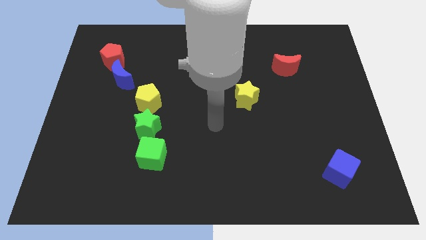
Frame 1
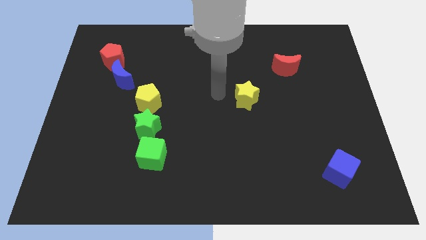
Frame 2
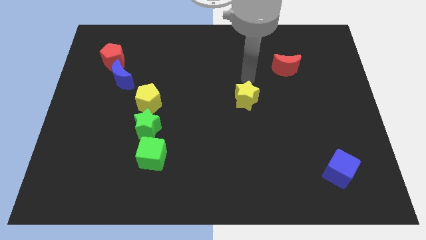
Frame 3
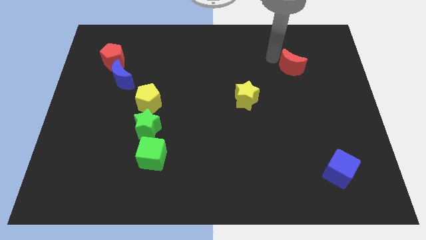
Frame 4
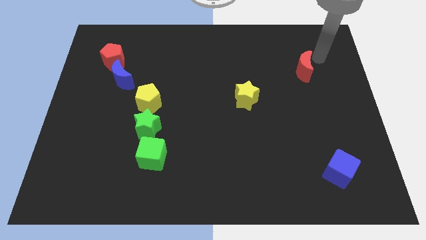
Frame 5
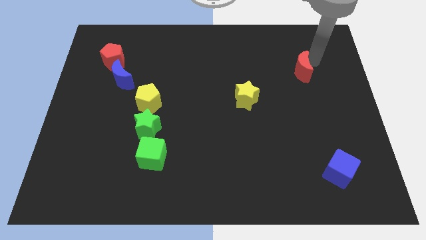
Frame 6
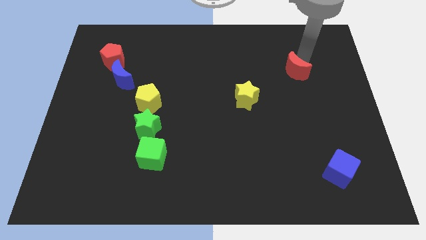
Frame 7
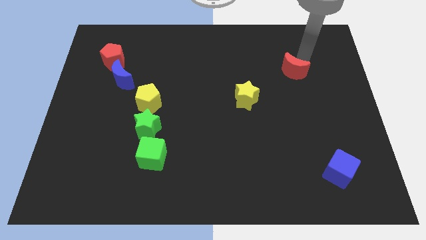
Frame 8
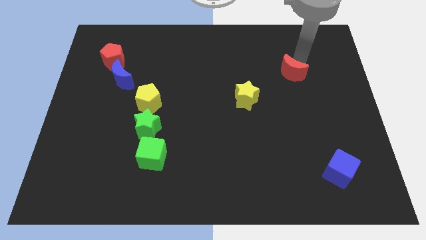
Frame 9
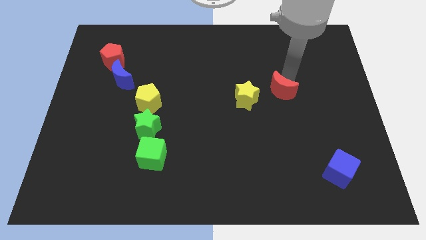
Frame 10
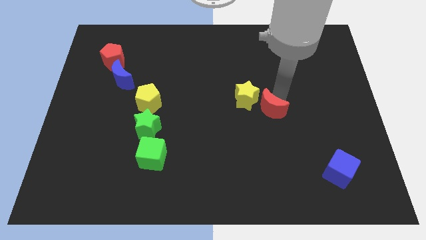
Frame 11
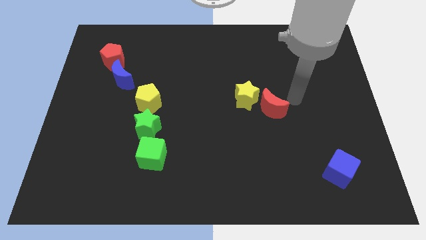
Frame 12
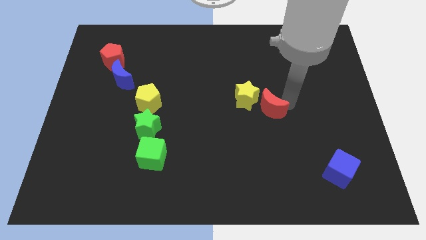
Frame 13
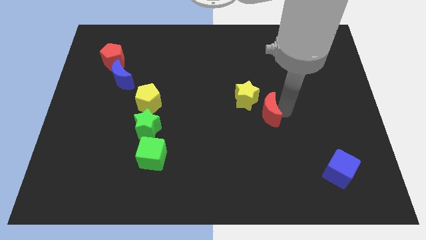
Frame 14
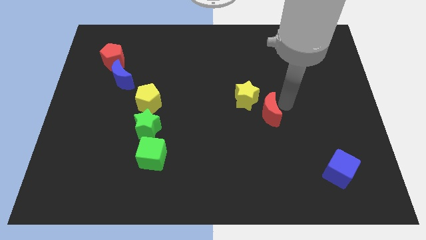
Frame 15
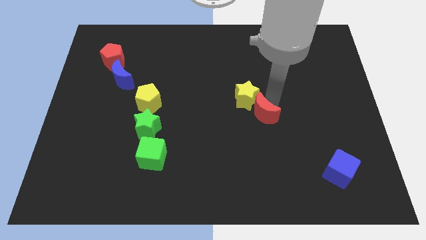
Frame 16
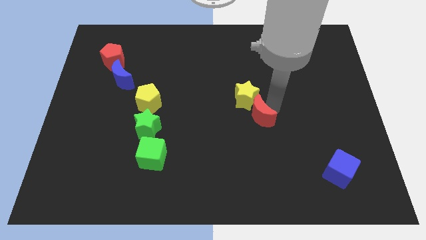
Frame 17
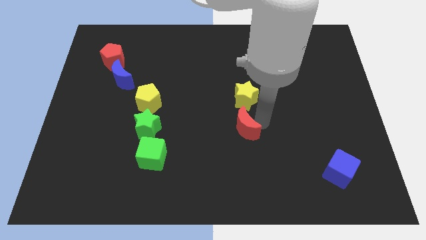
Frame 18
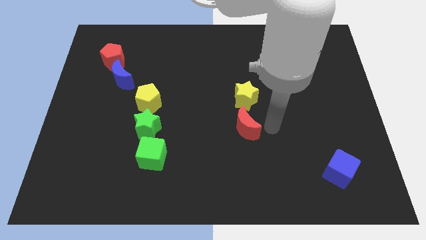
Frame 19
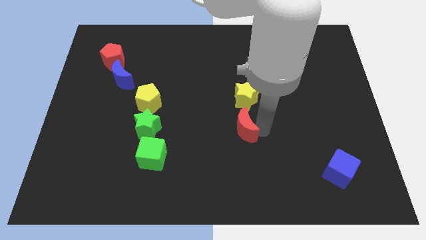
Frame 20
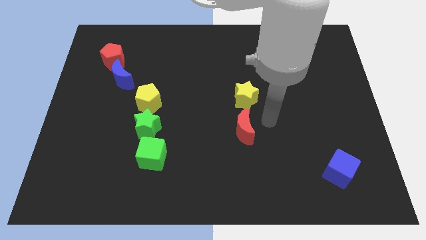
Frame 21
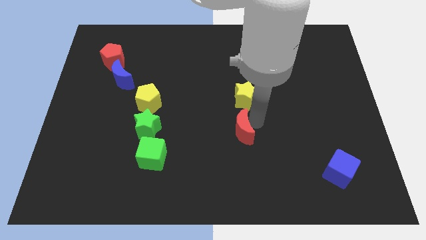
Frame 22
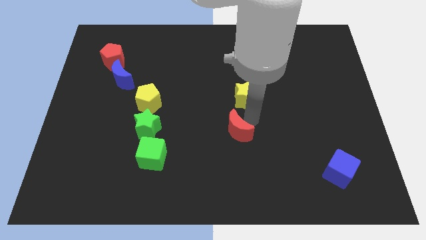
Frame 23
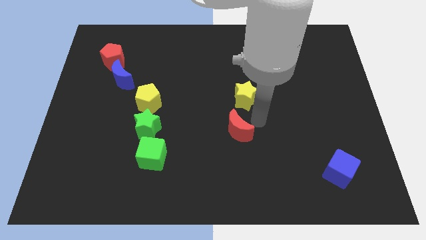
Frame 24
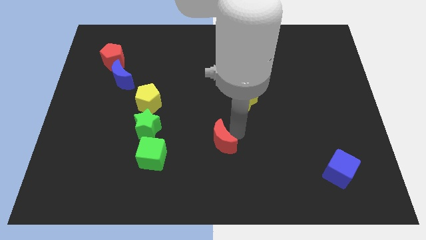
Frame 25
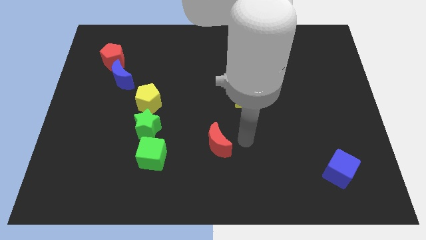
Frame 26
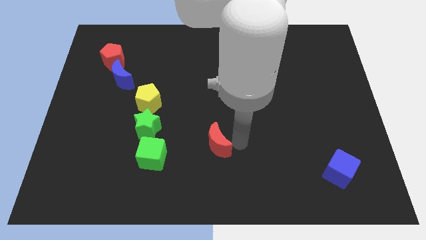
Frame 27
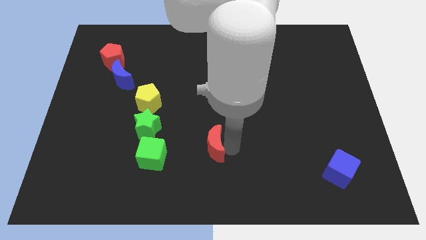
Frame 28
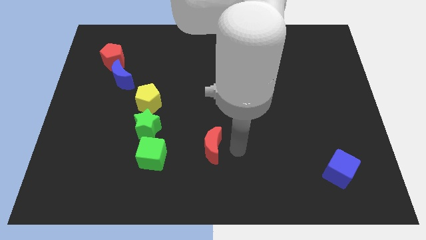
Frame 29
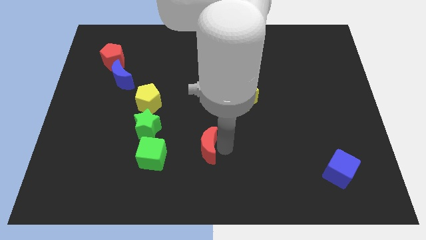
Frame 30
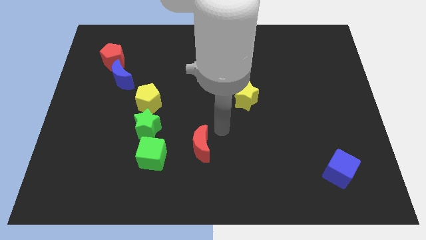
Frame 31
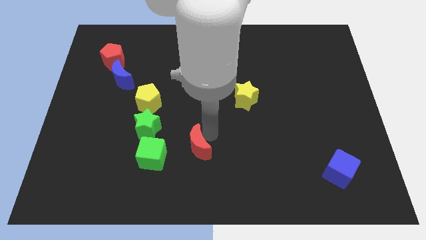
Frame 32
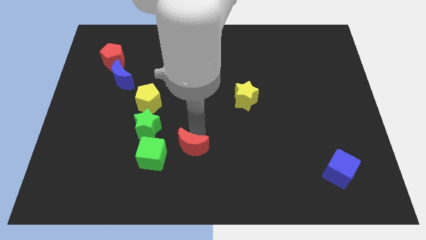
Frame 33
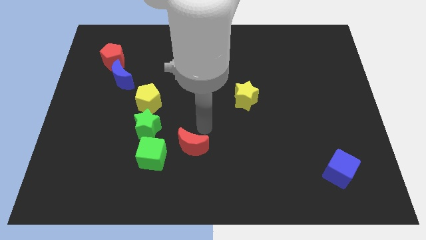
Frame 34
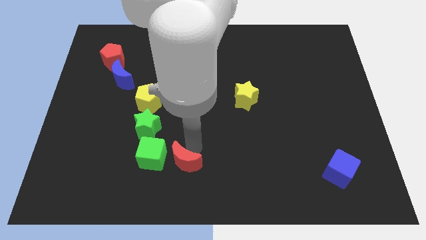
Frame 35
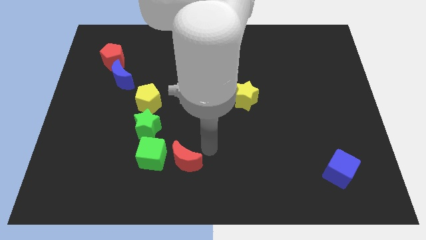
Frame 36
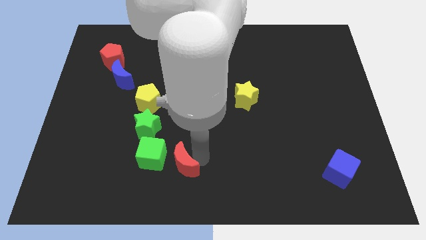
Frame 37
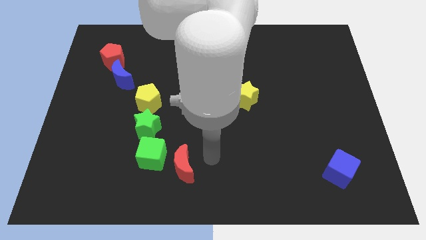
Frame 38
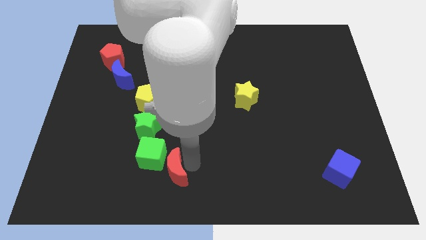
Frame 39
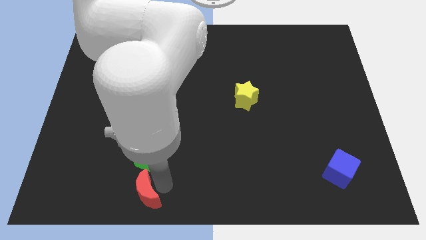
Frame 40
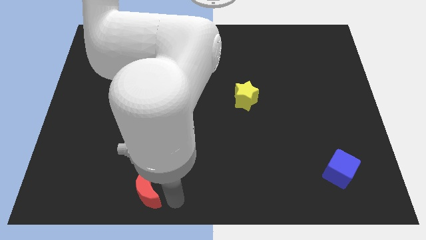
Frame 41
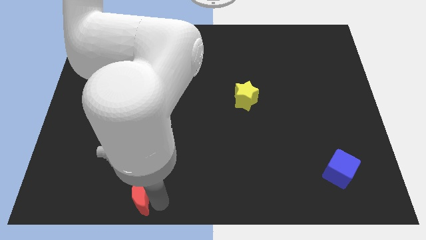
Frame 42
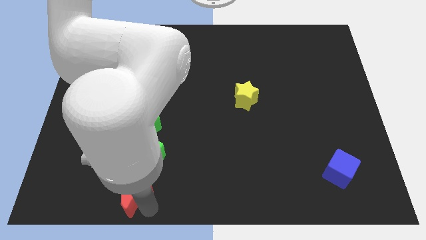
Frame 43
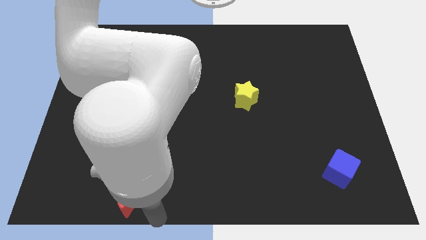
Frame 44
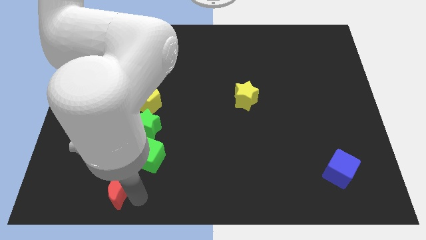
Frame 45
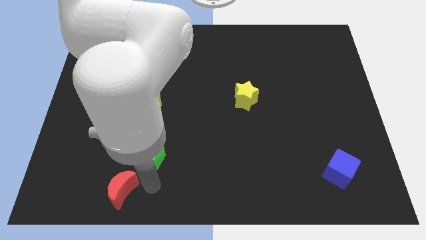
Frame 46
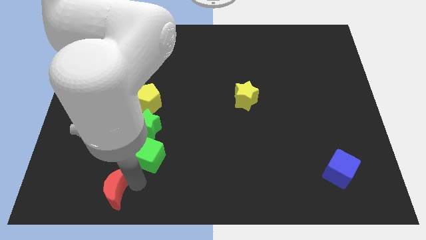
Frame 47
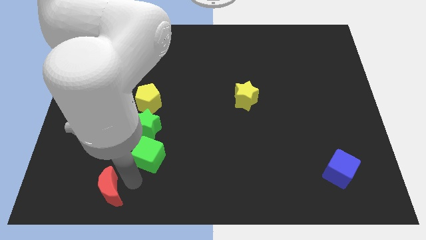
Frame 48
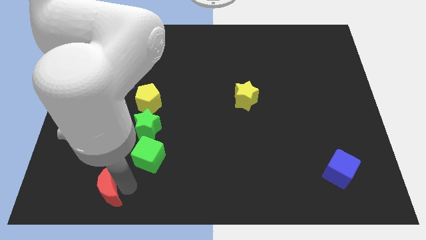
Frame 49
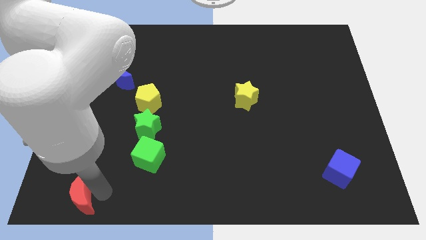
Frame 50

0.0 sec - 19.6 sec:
slide the red moon to the bottom left

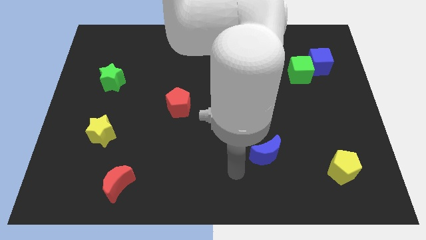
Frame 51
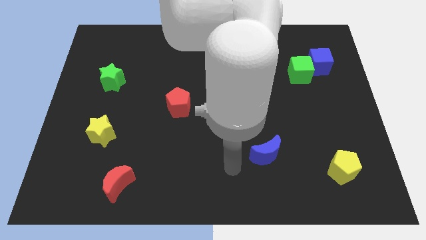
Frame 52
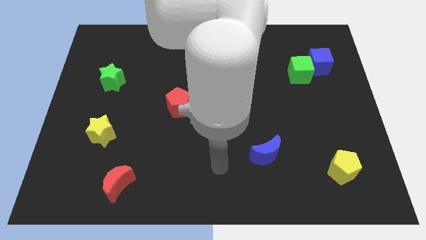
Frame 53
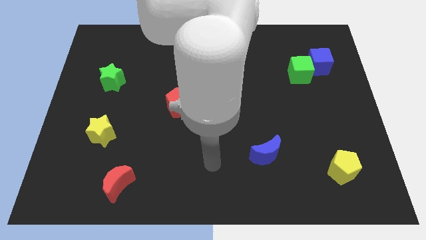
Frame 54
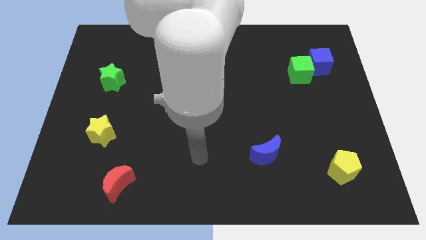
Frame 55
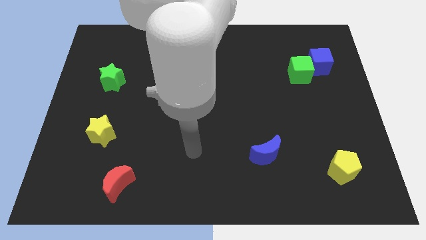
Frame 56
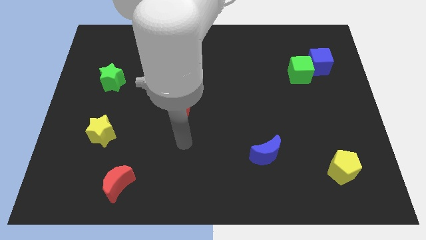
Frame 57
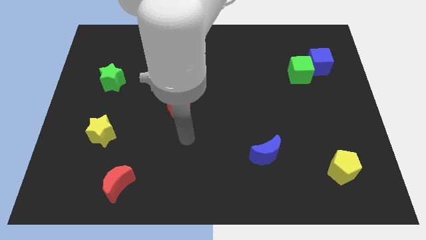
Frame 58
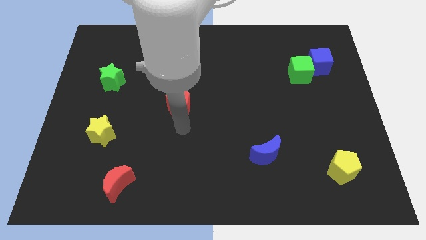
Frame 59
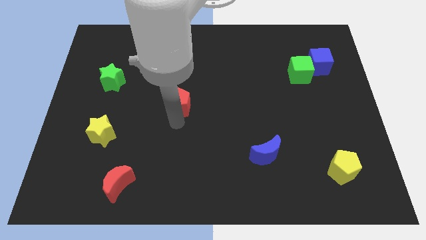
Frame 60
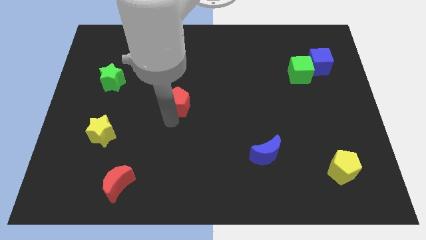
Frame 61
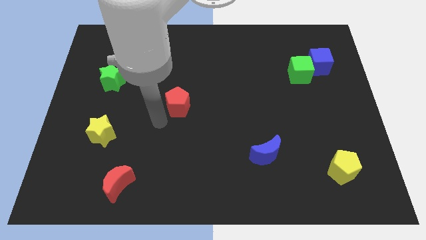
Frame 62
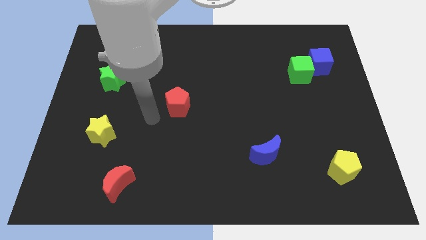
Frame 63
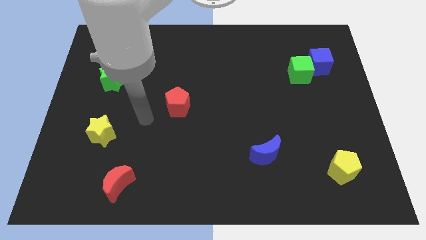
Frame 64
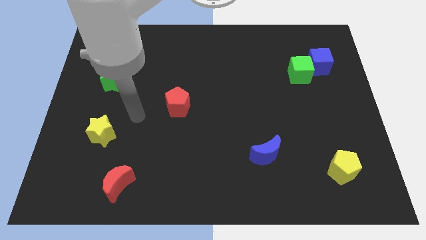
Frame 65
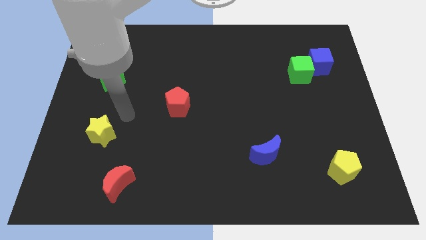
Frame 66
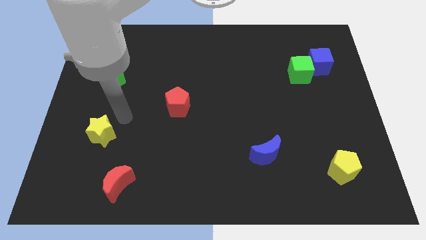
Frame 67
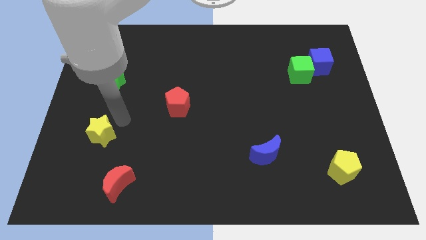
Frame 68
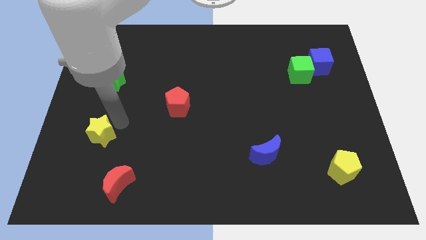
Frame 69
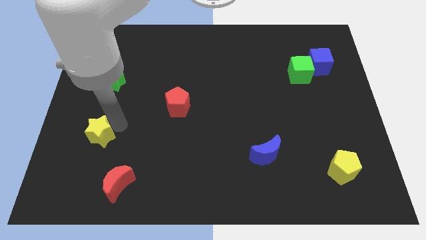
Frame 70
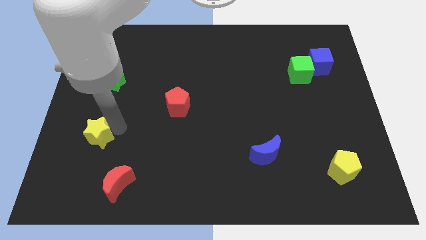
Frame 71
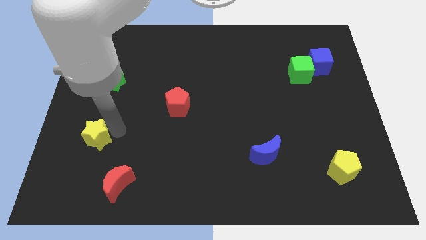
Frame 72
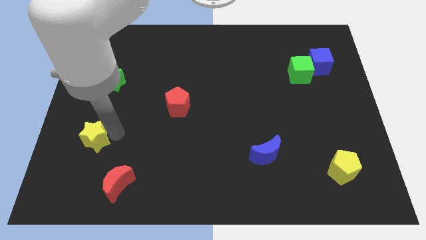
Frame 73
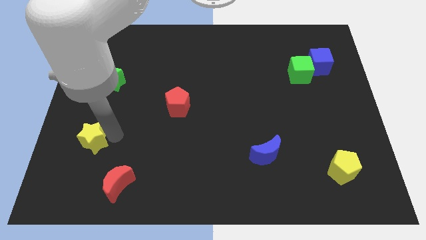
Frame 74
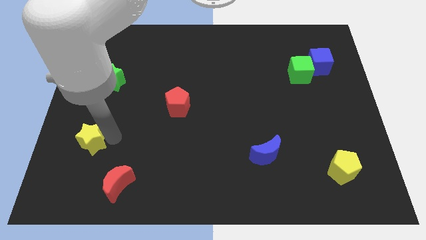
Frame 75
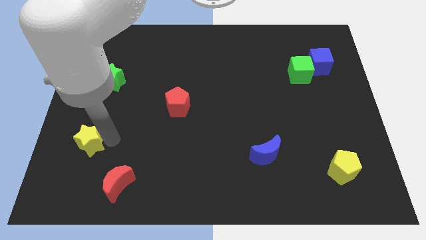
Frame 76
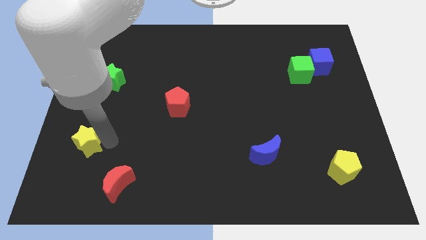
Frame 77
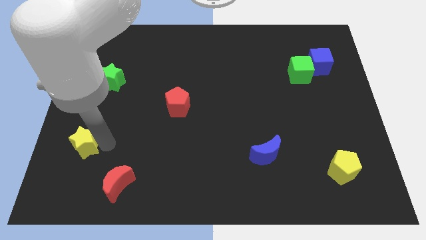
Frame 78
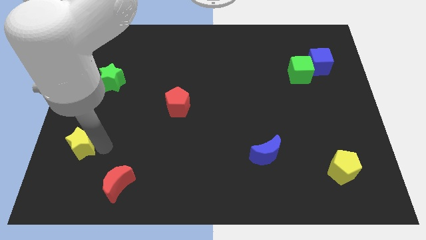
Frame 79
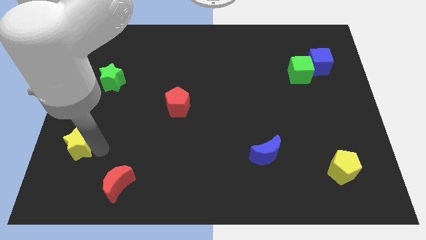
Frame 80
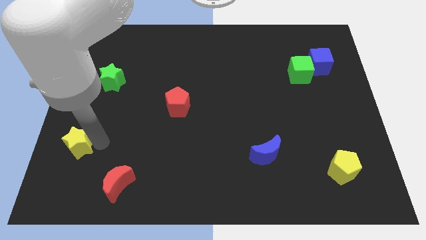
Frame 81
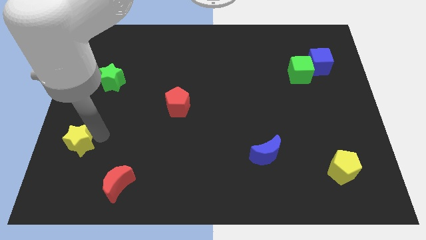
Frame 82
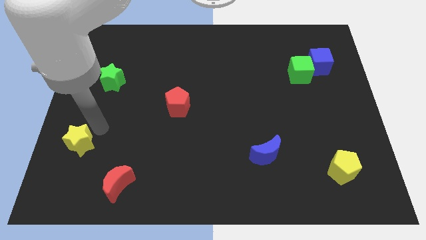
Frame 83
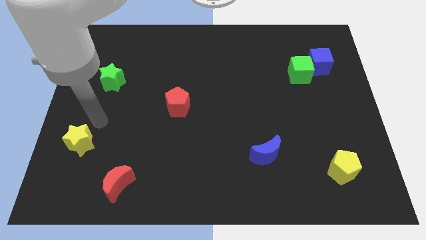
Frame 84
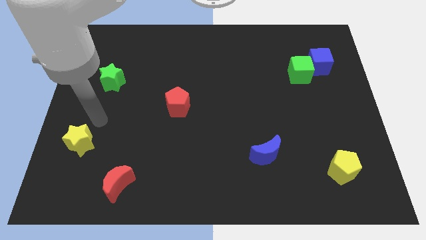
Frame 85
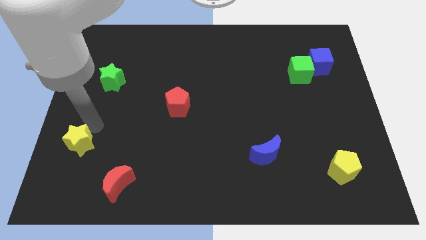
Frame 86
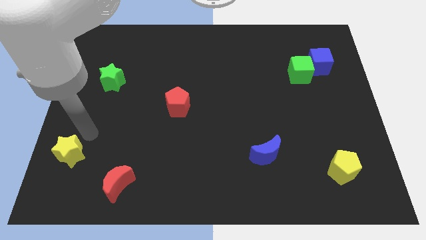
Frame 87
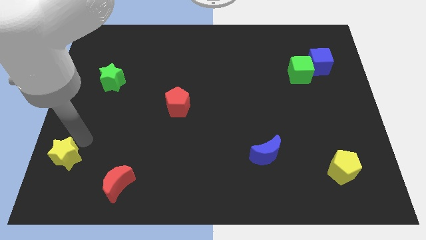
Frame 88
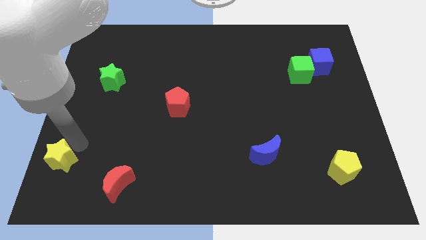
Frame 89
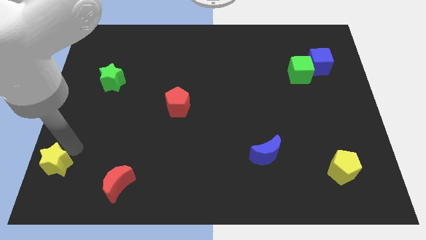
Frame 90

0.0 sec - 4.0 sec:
slide the yellow star to the lower left corner
